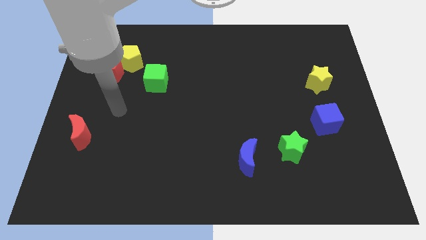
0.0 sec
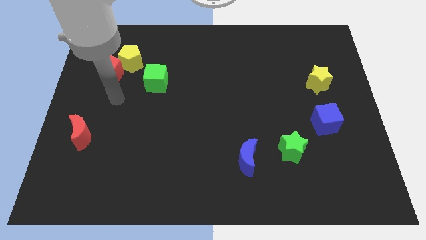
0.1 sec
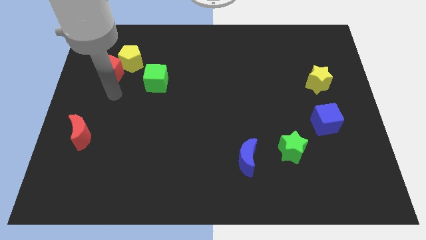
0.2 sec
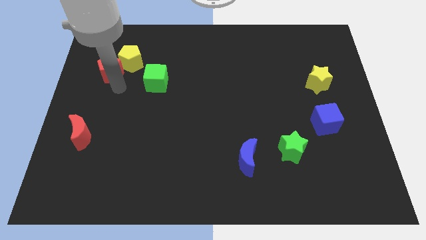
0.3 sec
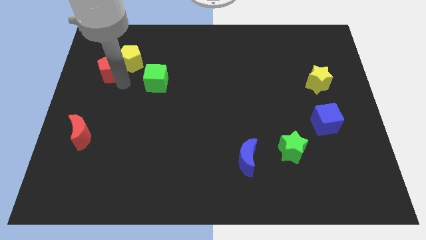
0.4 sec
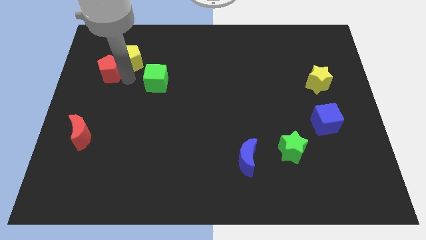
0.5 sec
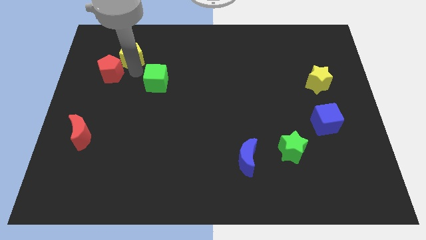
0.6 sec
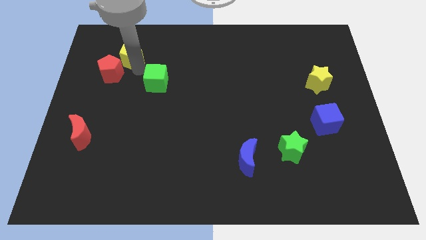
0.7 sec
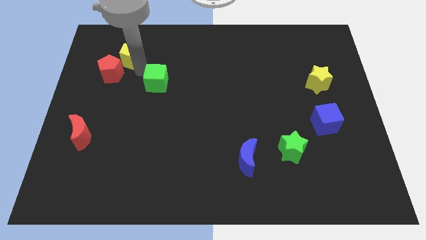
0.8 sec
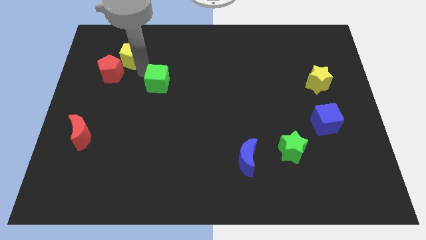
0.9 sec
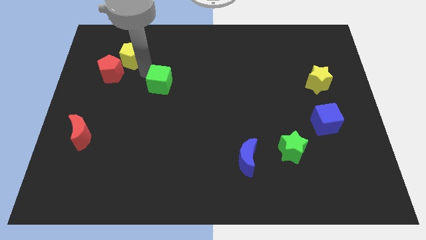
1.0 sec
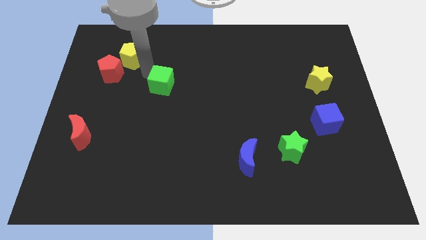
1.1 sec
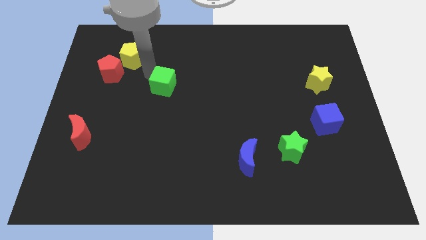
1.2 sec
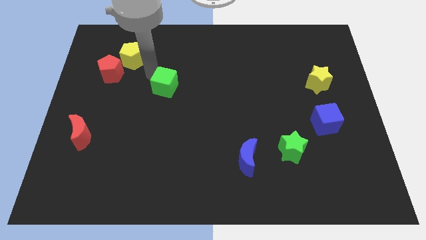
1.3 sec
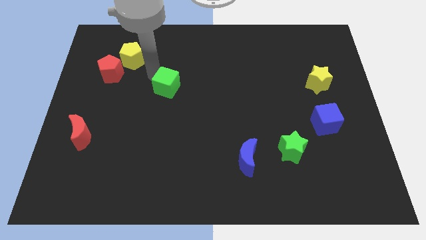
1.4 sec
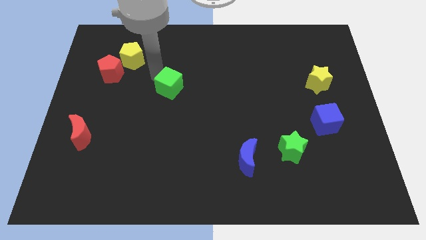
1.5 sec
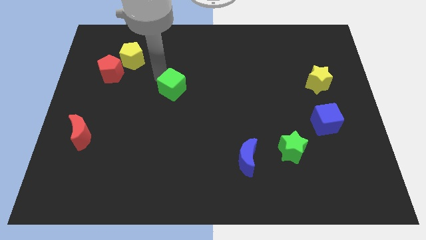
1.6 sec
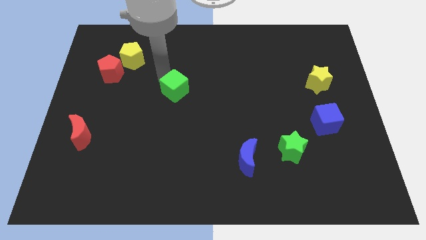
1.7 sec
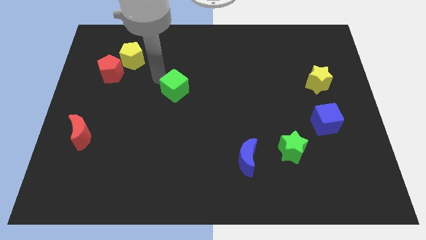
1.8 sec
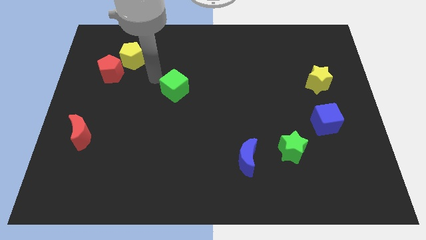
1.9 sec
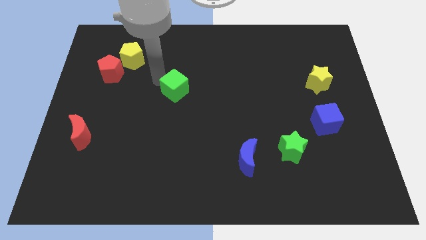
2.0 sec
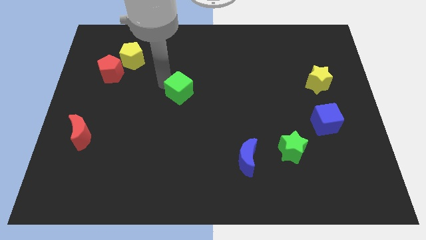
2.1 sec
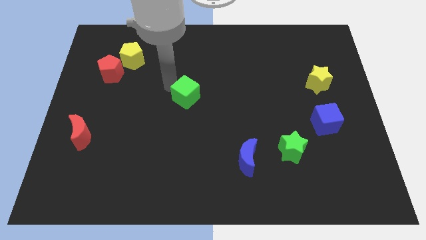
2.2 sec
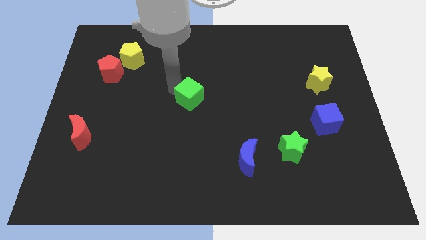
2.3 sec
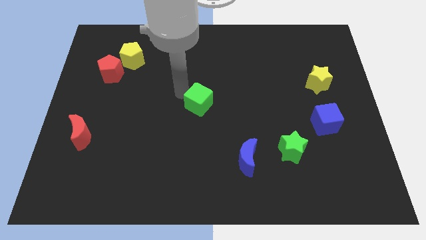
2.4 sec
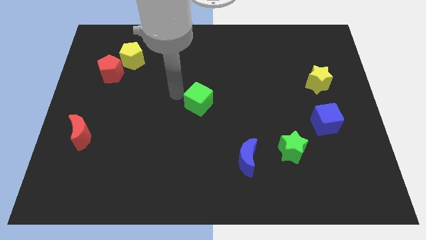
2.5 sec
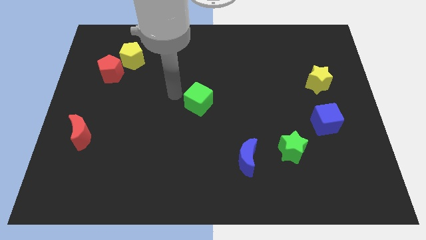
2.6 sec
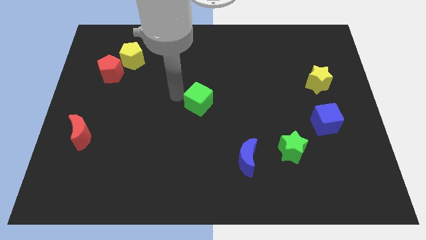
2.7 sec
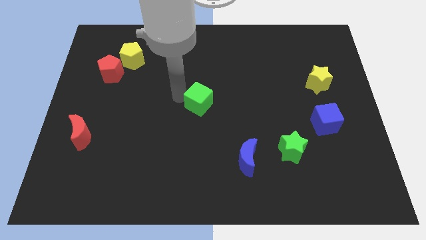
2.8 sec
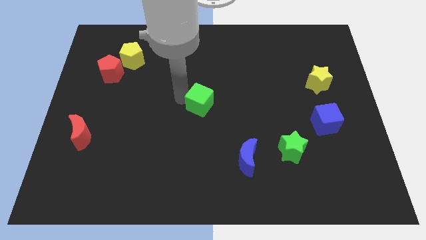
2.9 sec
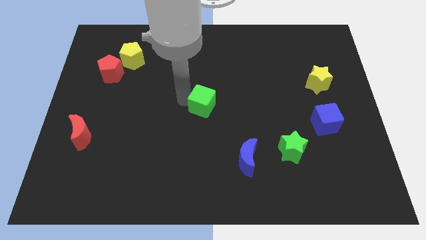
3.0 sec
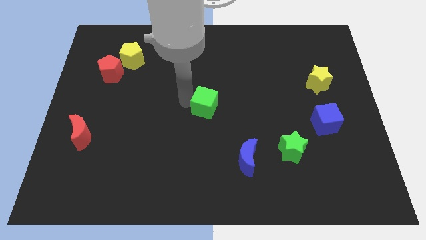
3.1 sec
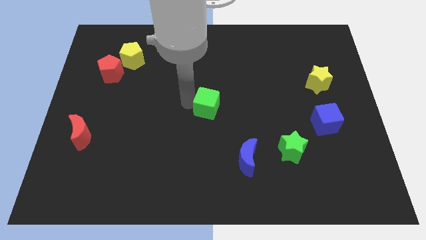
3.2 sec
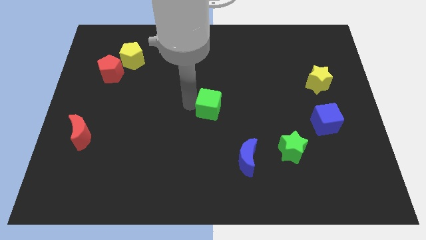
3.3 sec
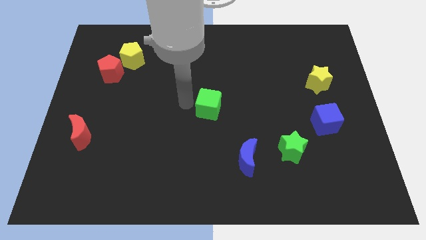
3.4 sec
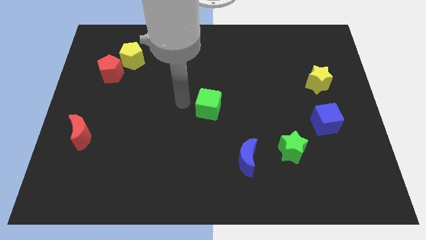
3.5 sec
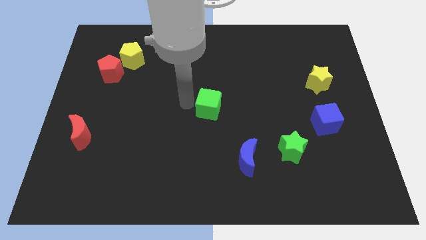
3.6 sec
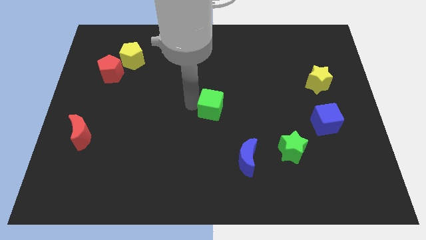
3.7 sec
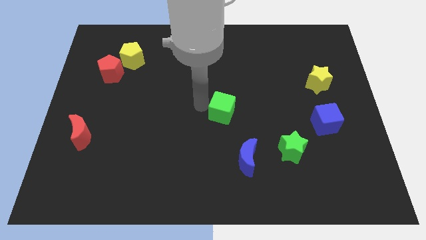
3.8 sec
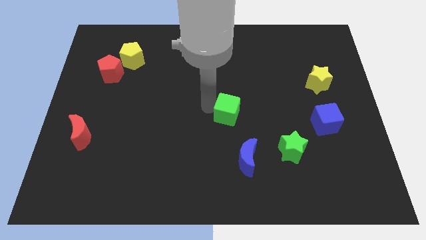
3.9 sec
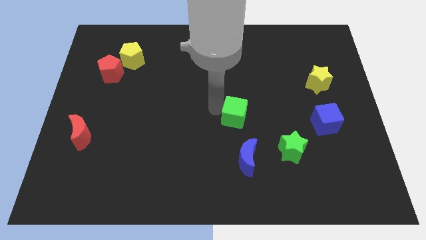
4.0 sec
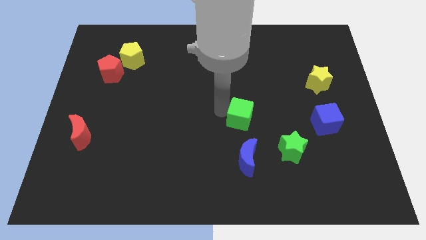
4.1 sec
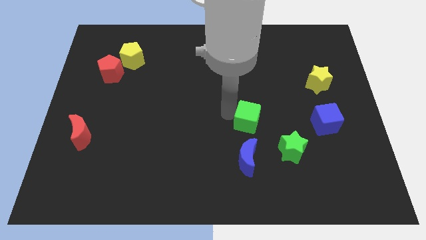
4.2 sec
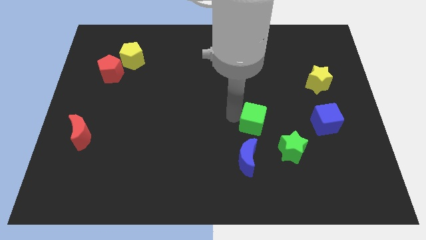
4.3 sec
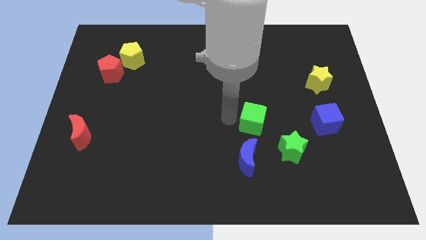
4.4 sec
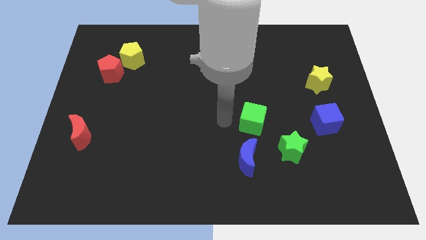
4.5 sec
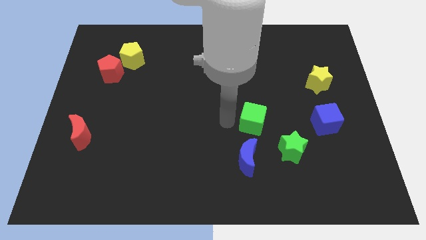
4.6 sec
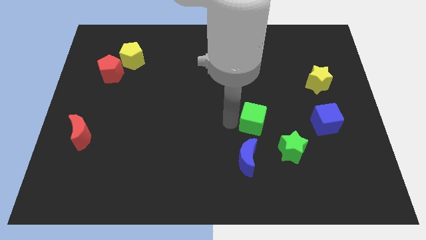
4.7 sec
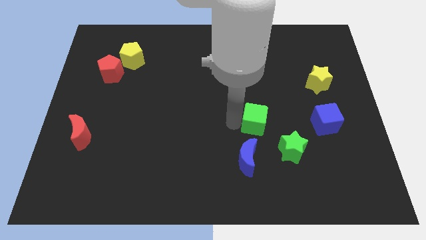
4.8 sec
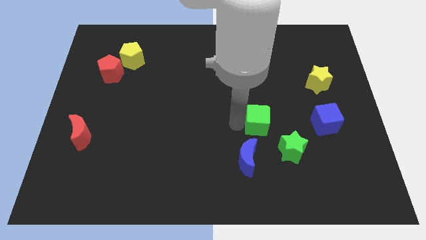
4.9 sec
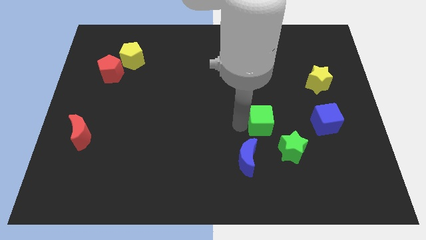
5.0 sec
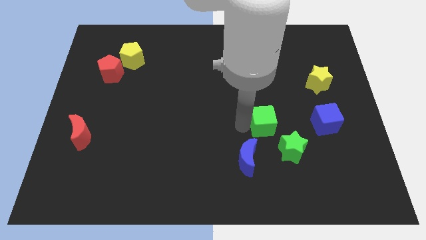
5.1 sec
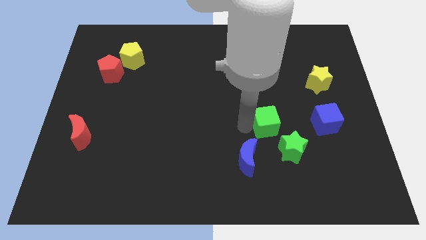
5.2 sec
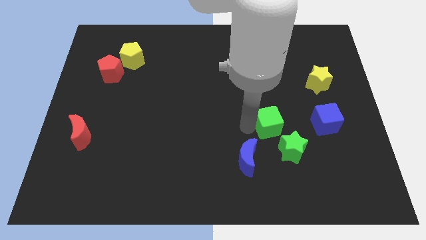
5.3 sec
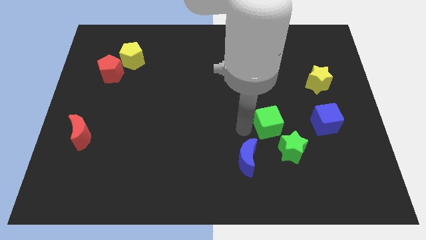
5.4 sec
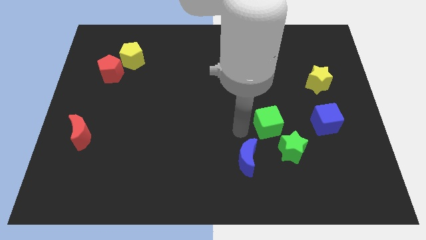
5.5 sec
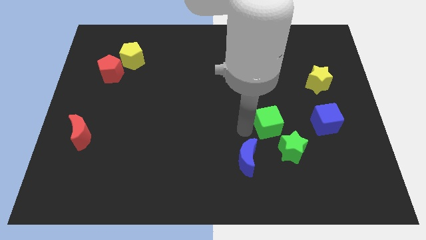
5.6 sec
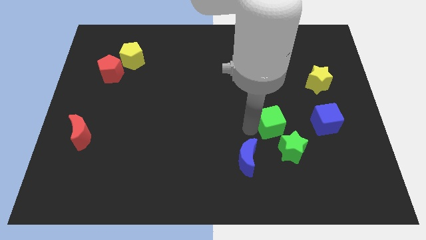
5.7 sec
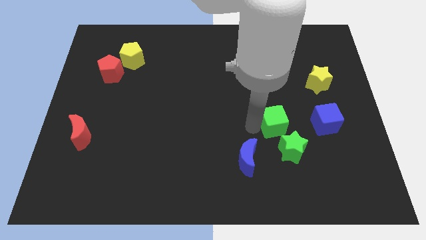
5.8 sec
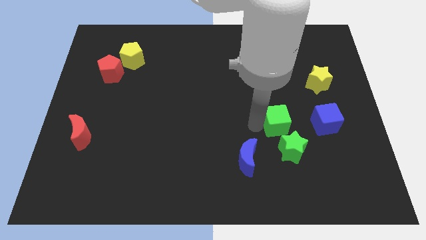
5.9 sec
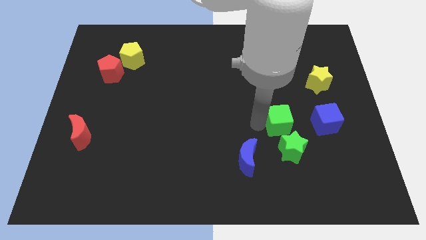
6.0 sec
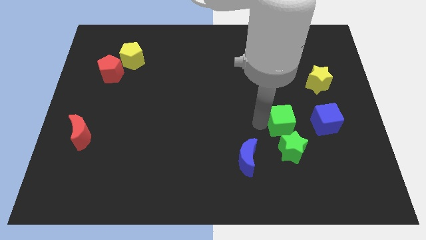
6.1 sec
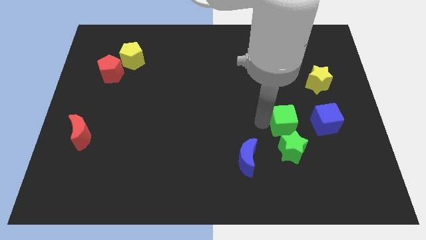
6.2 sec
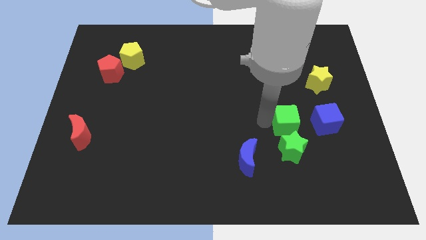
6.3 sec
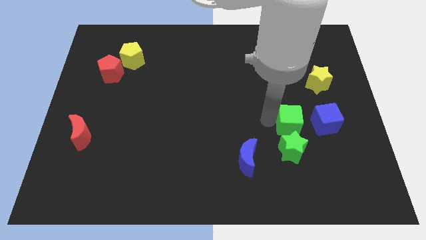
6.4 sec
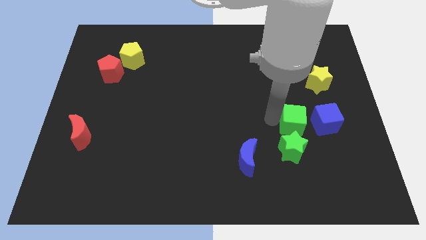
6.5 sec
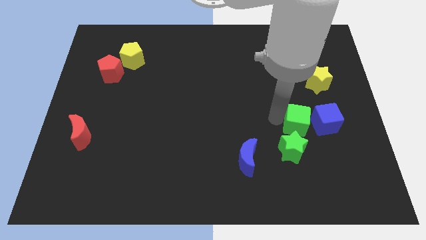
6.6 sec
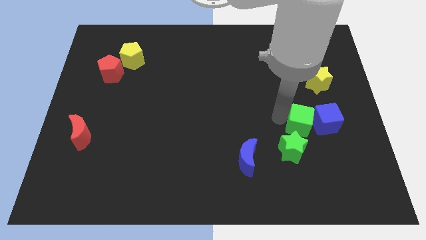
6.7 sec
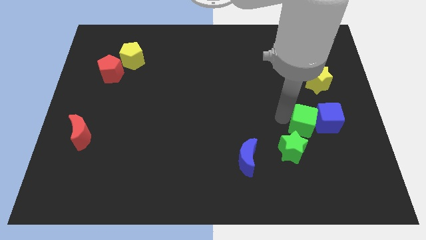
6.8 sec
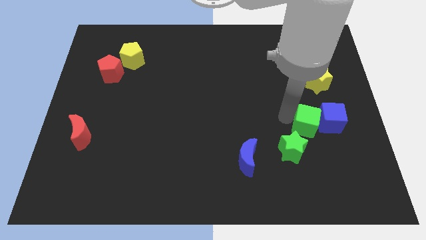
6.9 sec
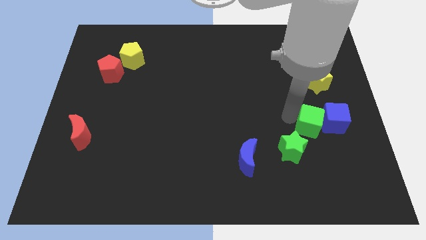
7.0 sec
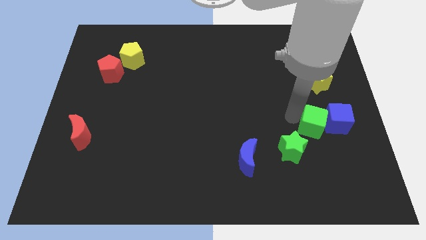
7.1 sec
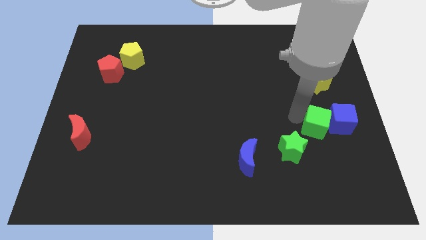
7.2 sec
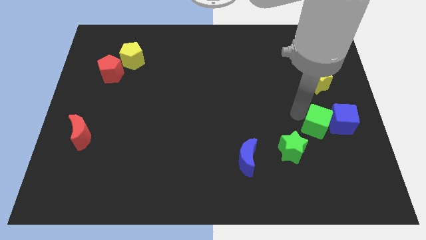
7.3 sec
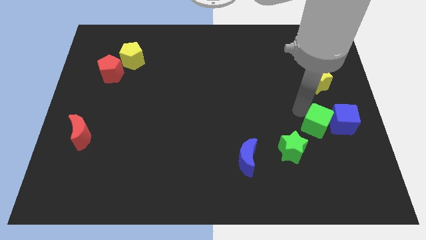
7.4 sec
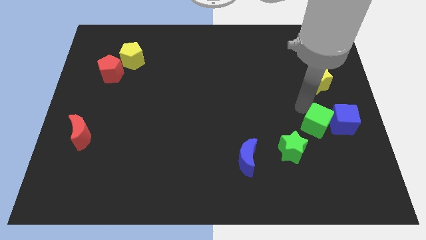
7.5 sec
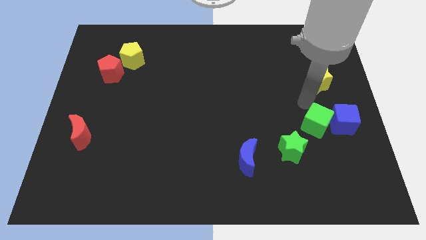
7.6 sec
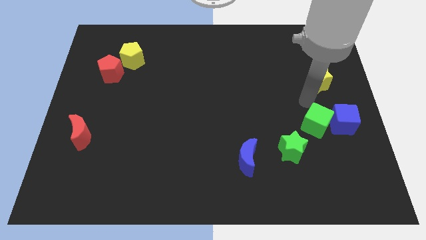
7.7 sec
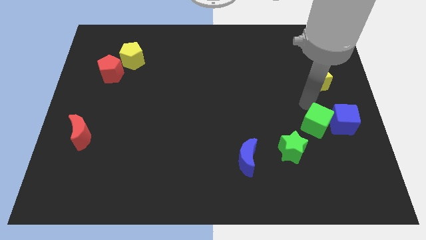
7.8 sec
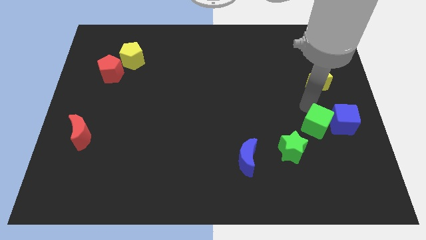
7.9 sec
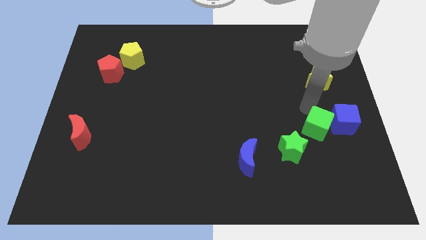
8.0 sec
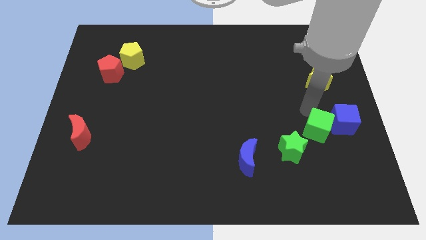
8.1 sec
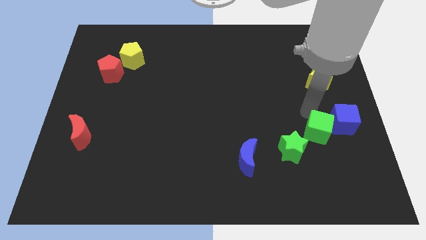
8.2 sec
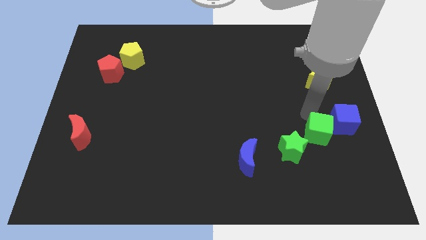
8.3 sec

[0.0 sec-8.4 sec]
move the green cube just right of the green star
